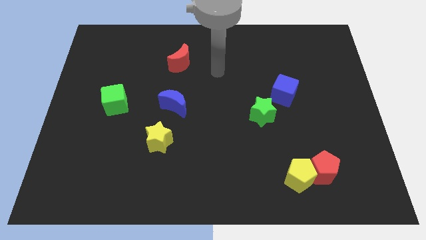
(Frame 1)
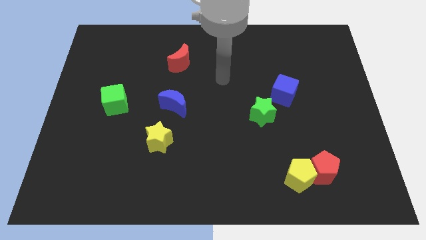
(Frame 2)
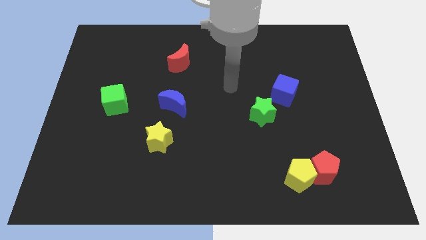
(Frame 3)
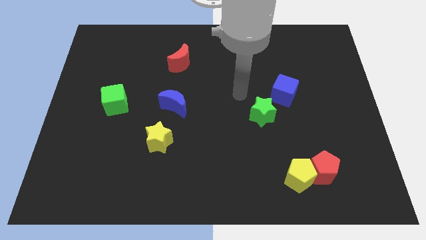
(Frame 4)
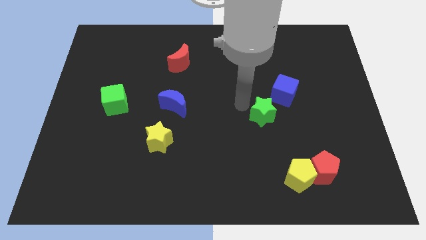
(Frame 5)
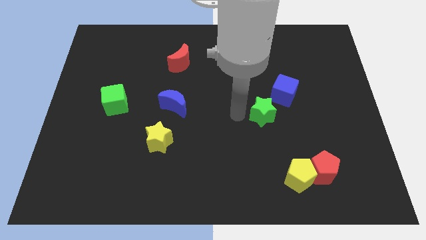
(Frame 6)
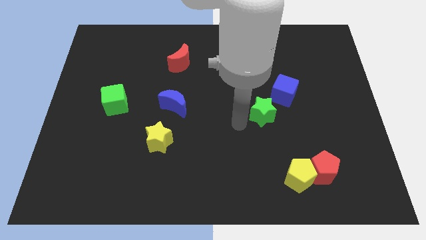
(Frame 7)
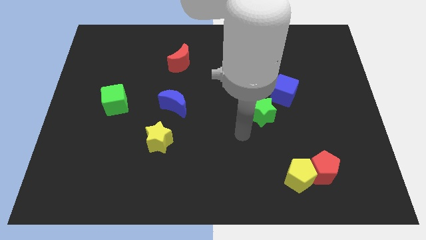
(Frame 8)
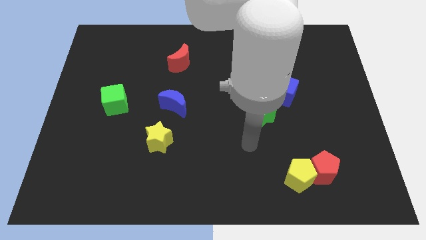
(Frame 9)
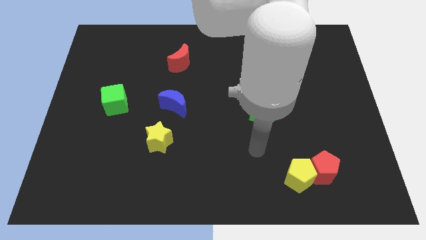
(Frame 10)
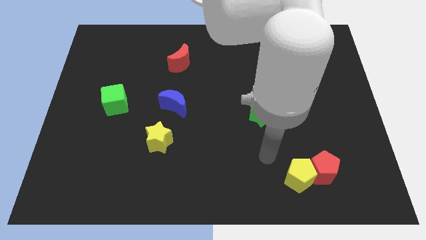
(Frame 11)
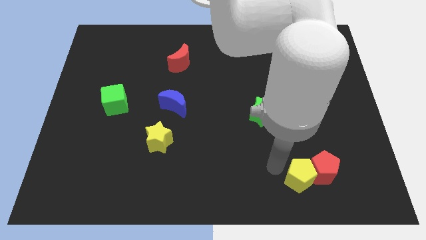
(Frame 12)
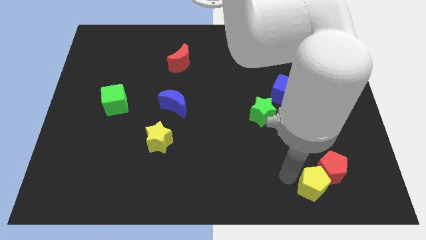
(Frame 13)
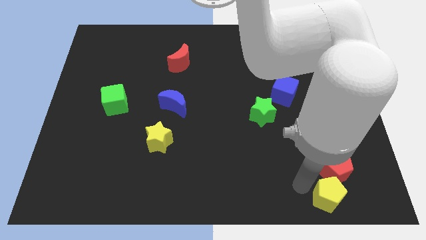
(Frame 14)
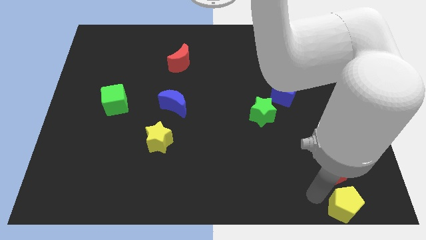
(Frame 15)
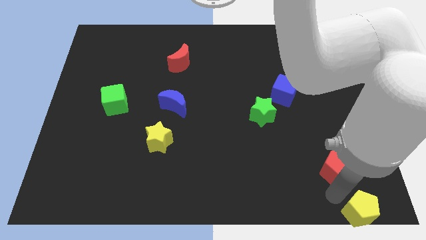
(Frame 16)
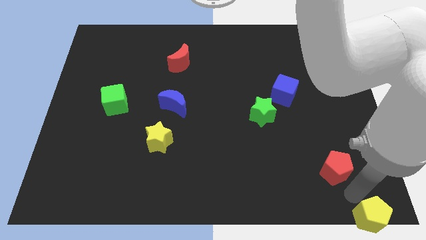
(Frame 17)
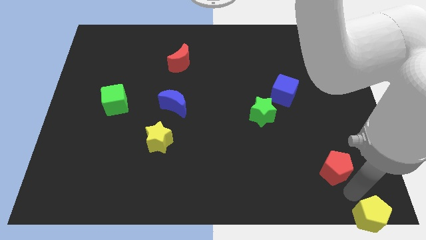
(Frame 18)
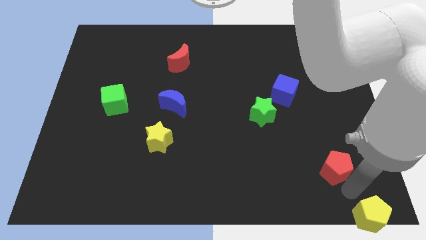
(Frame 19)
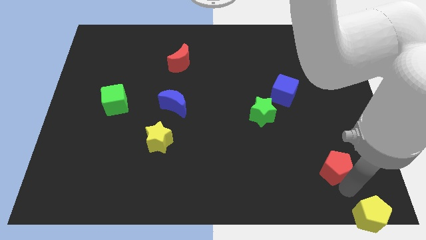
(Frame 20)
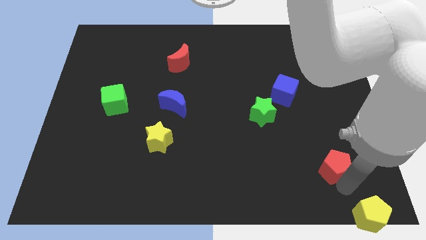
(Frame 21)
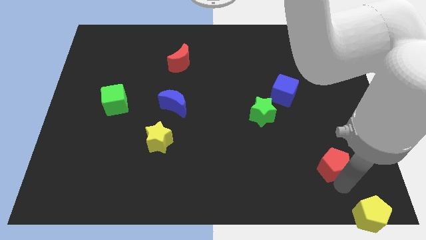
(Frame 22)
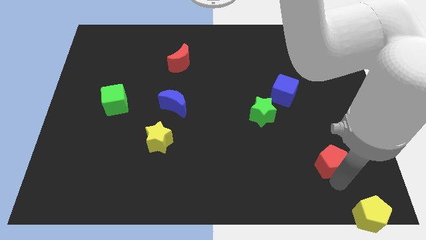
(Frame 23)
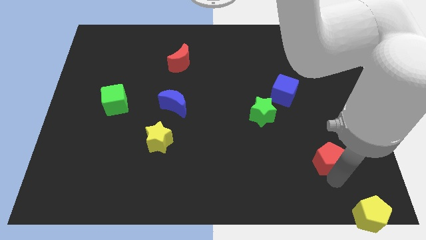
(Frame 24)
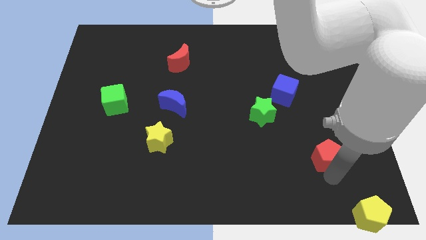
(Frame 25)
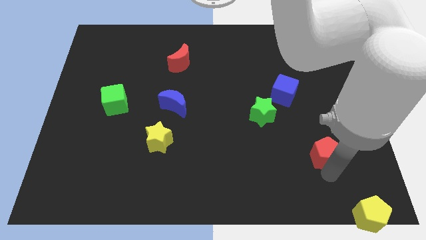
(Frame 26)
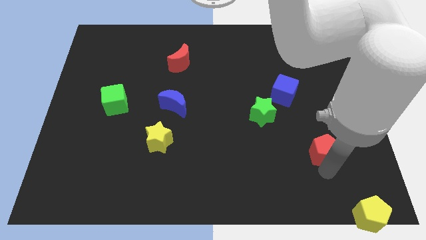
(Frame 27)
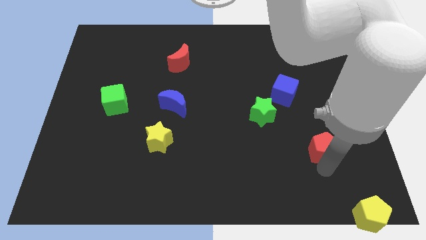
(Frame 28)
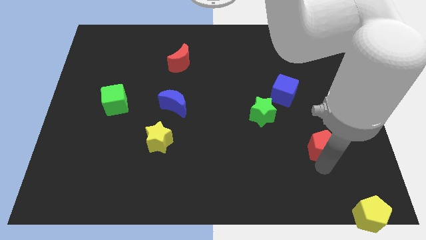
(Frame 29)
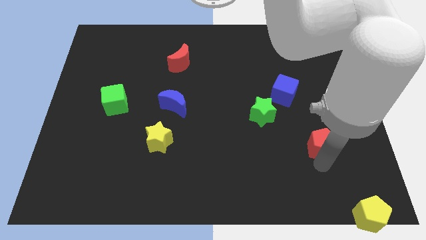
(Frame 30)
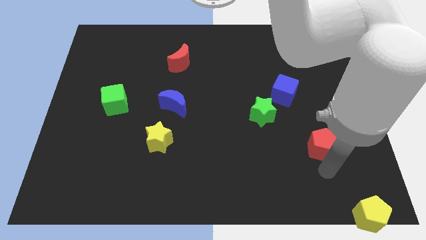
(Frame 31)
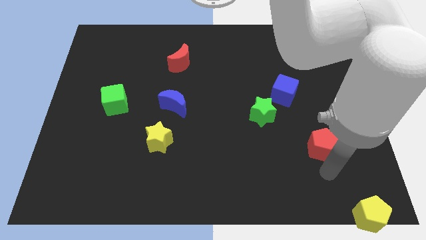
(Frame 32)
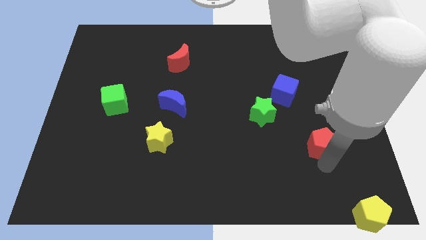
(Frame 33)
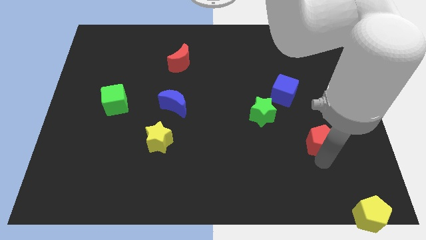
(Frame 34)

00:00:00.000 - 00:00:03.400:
slide the red pentagon upwards a little

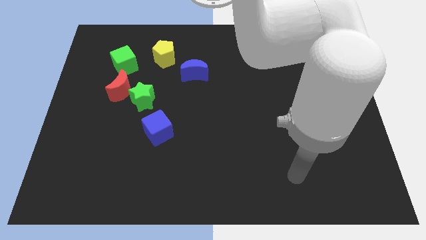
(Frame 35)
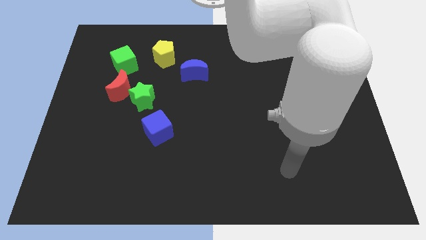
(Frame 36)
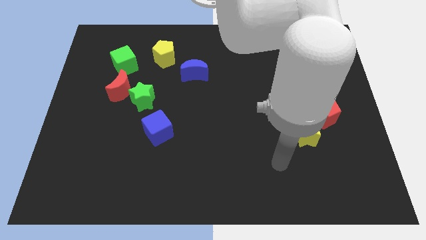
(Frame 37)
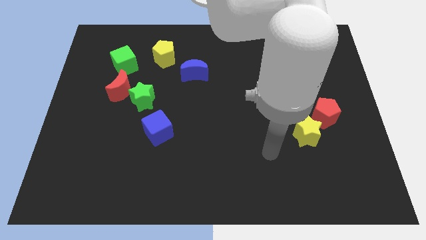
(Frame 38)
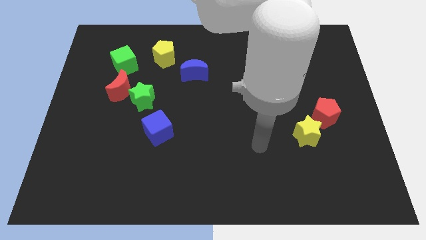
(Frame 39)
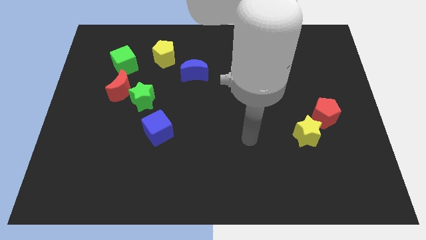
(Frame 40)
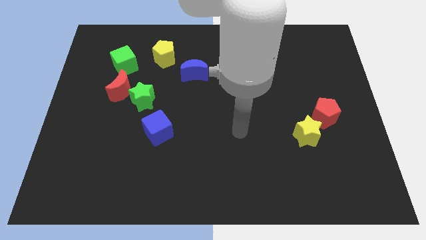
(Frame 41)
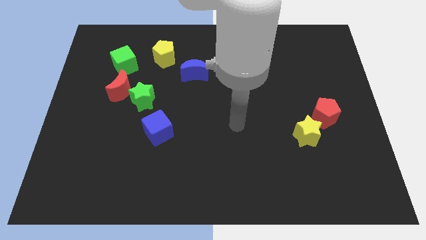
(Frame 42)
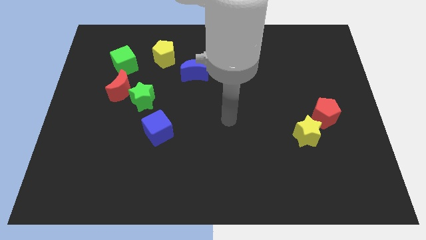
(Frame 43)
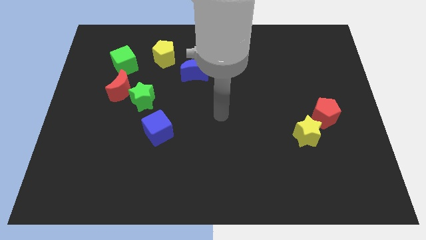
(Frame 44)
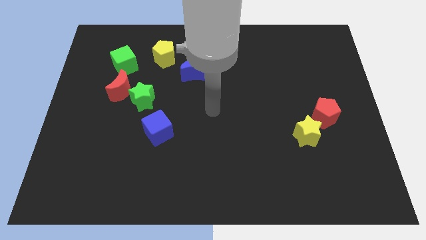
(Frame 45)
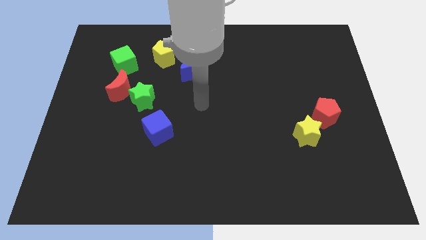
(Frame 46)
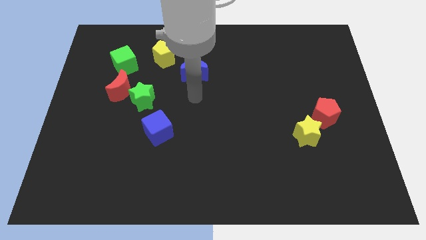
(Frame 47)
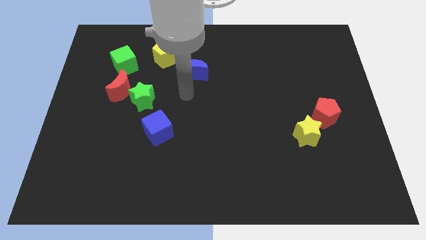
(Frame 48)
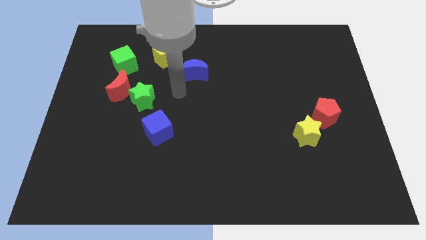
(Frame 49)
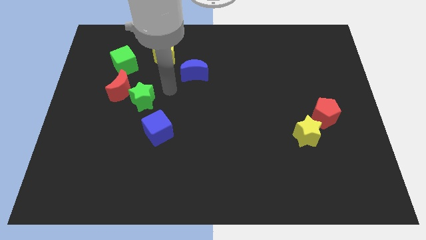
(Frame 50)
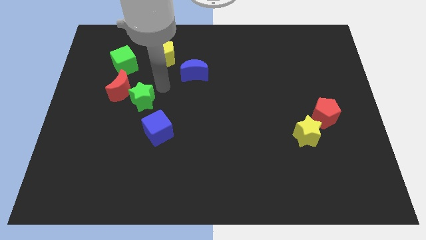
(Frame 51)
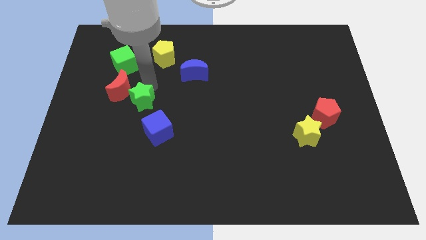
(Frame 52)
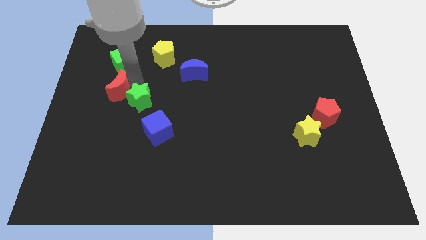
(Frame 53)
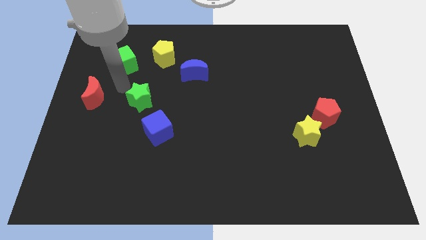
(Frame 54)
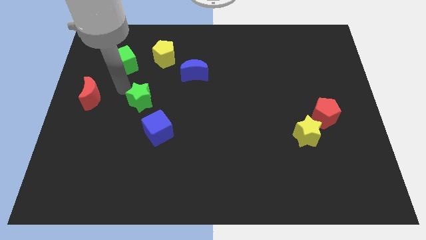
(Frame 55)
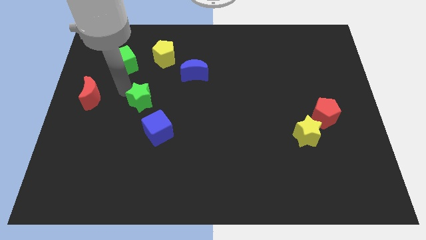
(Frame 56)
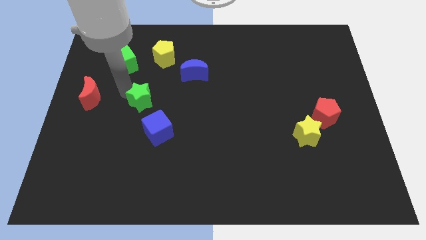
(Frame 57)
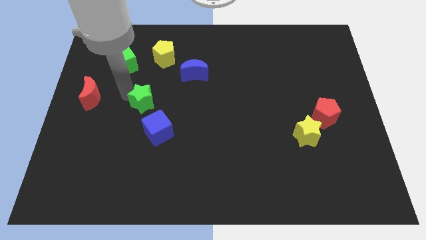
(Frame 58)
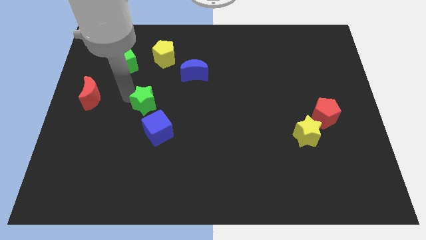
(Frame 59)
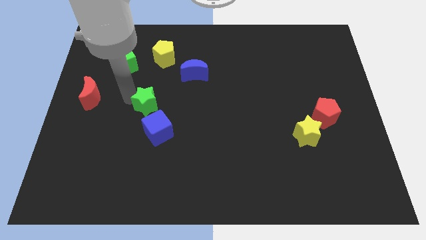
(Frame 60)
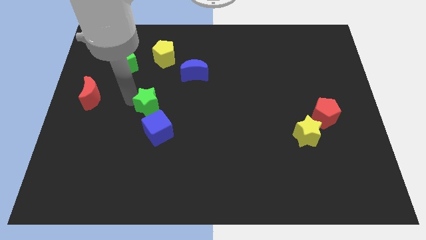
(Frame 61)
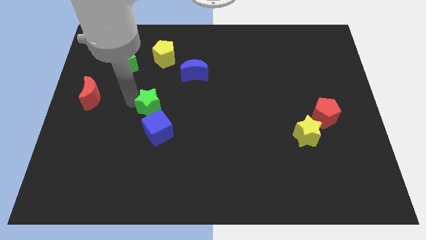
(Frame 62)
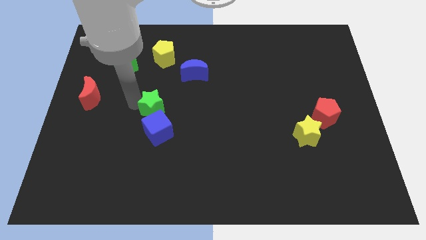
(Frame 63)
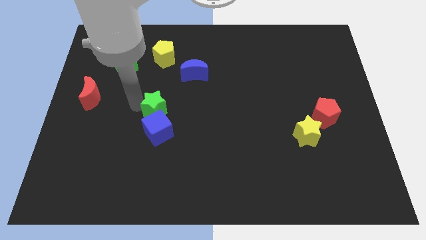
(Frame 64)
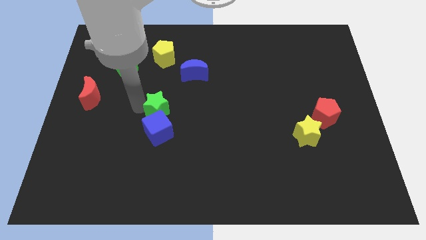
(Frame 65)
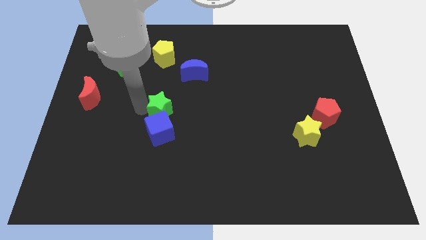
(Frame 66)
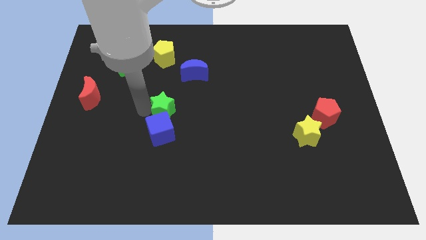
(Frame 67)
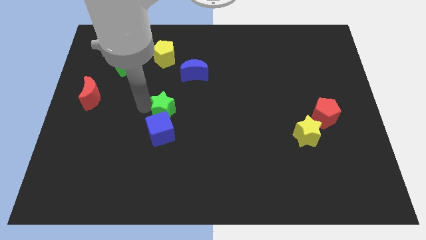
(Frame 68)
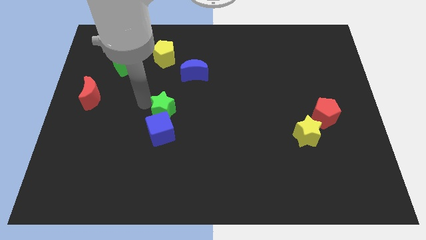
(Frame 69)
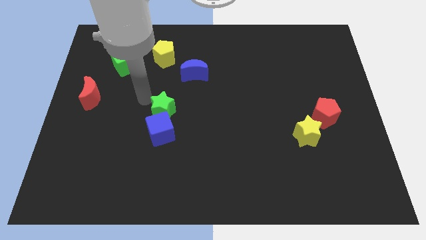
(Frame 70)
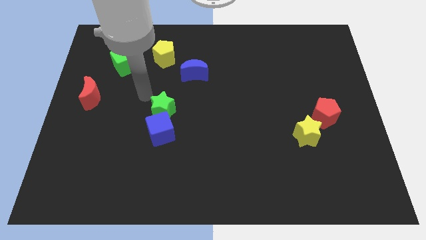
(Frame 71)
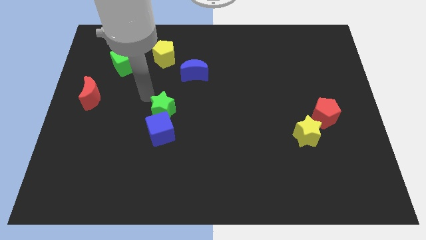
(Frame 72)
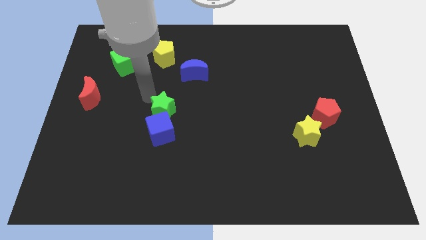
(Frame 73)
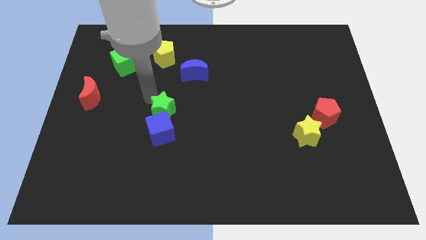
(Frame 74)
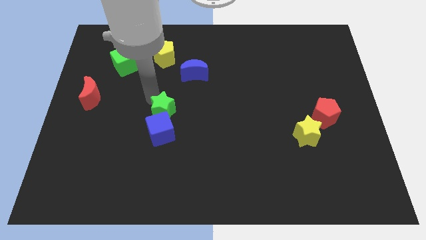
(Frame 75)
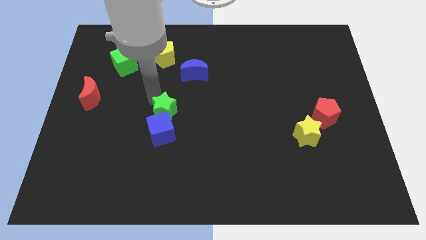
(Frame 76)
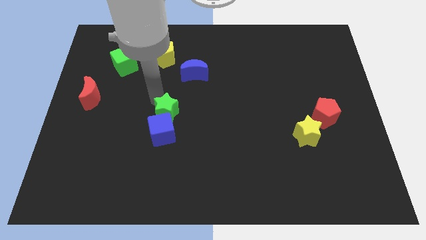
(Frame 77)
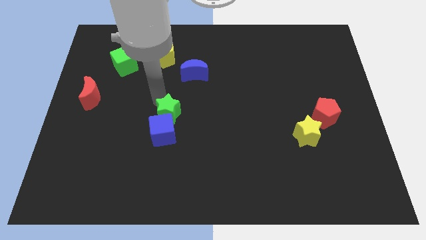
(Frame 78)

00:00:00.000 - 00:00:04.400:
slide the green star downwards and then right somewhat

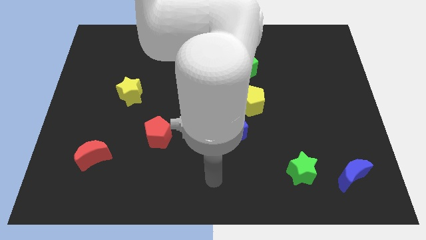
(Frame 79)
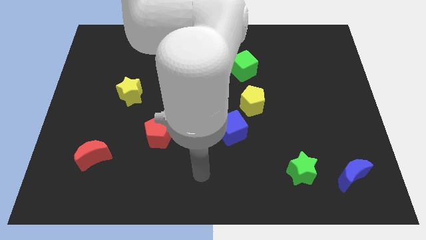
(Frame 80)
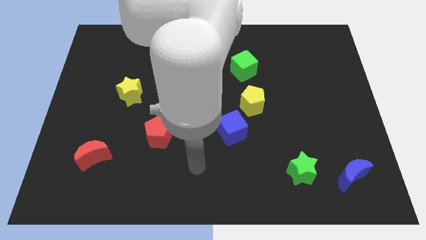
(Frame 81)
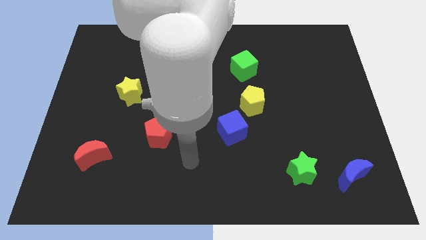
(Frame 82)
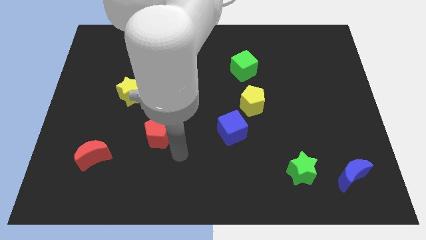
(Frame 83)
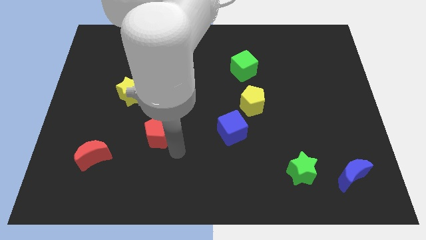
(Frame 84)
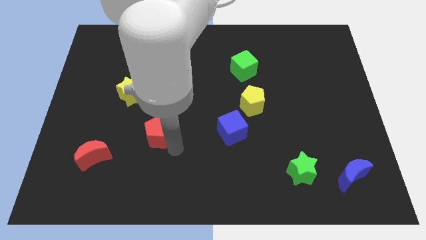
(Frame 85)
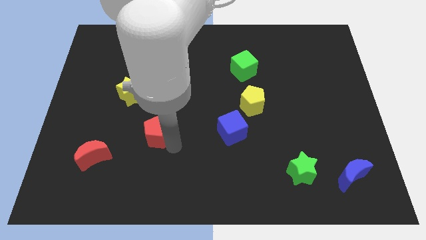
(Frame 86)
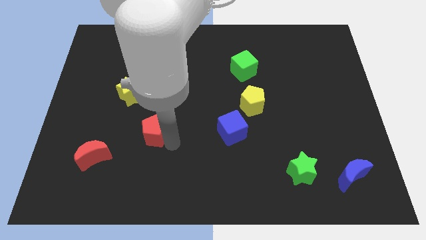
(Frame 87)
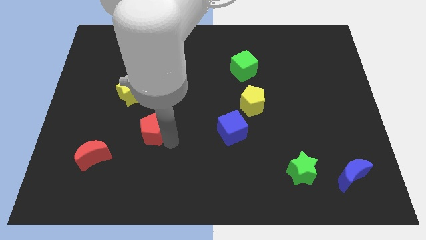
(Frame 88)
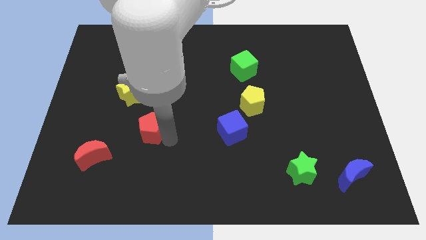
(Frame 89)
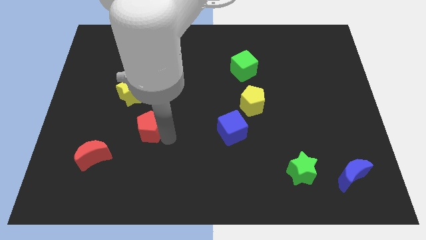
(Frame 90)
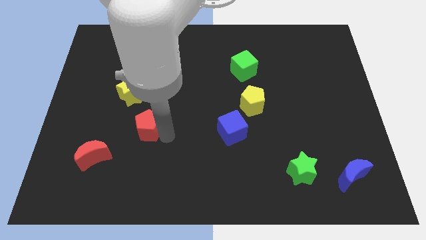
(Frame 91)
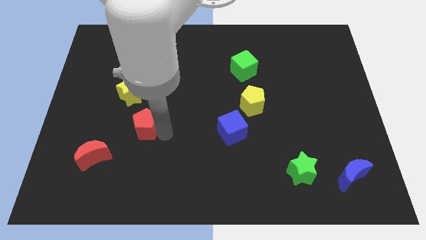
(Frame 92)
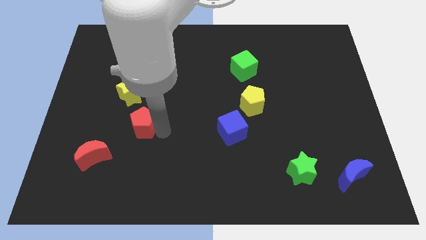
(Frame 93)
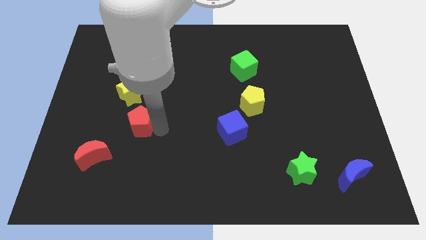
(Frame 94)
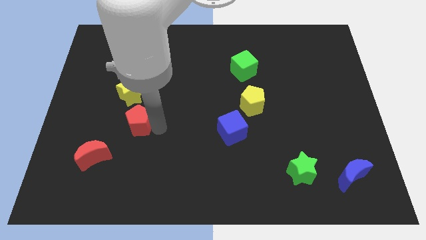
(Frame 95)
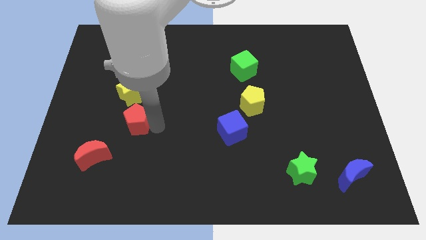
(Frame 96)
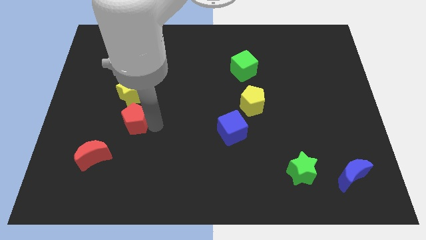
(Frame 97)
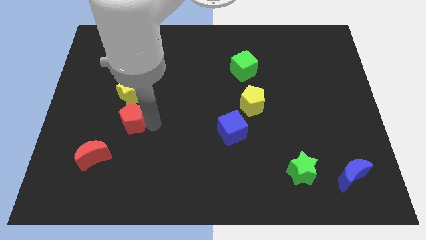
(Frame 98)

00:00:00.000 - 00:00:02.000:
move the red pentagon up and then left a bit
